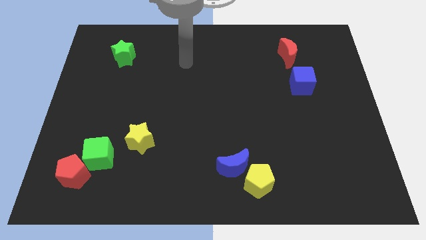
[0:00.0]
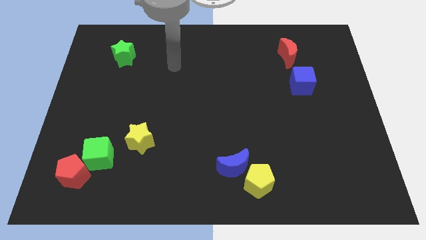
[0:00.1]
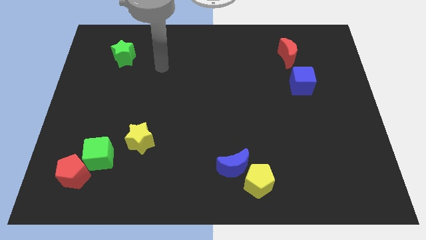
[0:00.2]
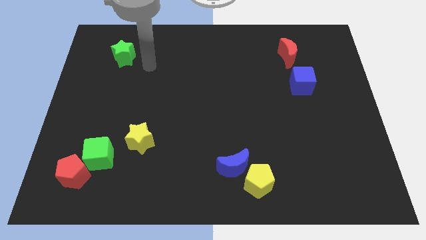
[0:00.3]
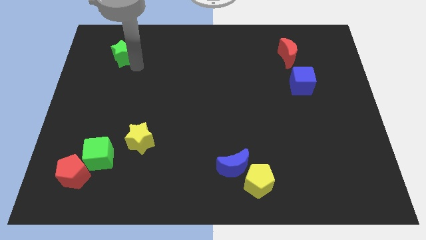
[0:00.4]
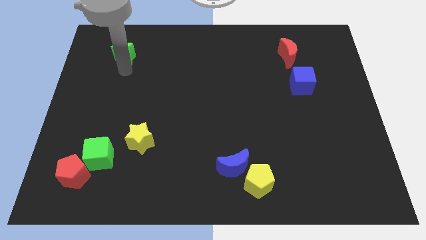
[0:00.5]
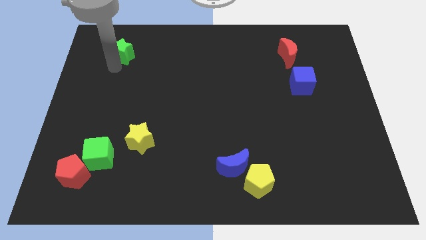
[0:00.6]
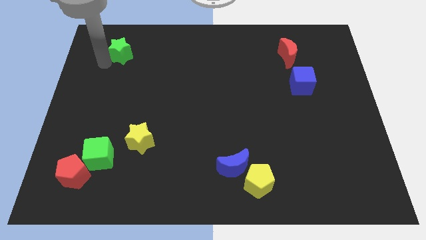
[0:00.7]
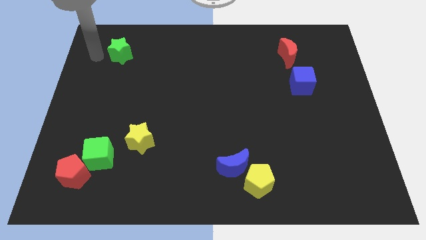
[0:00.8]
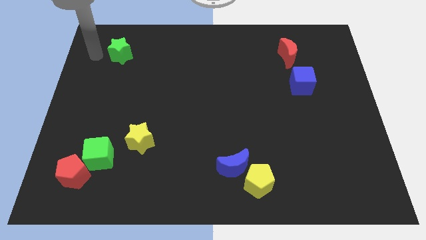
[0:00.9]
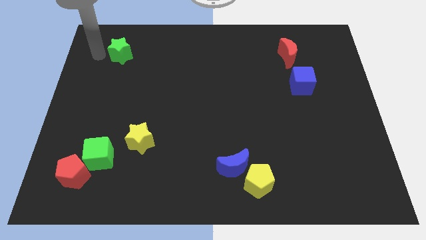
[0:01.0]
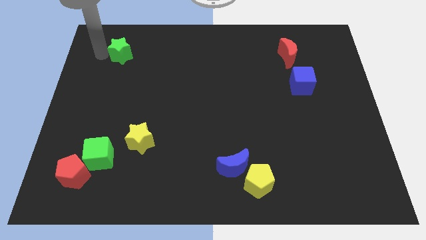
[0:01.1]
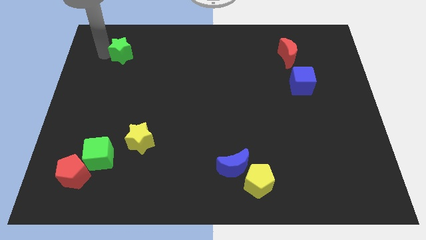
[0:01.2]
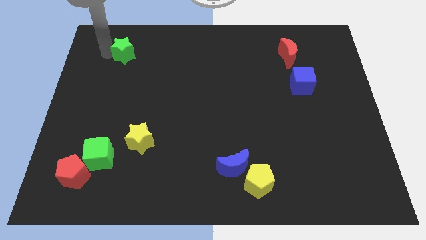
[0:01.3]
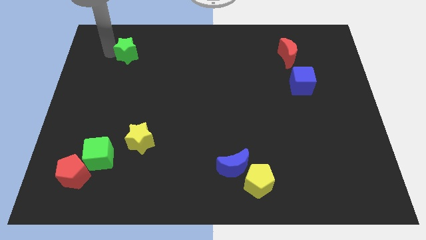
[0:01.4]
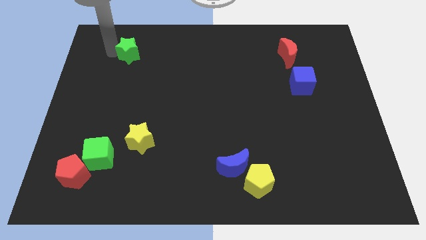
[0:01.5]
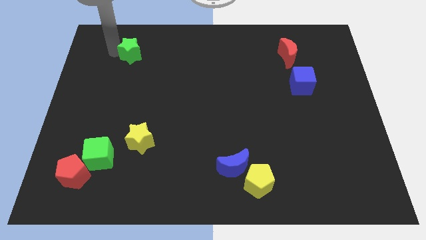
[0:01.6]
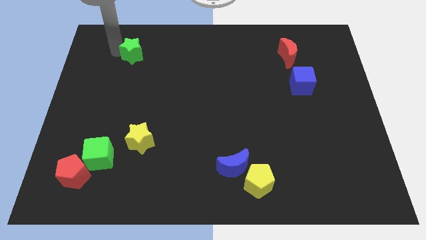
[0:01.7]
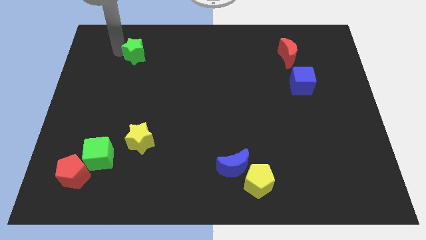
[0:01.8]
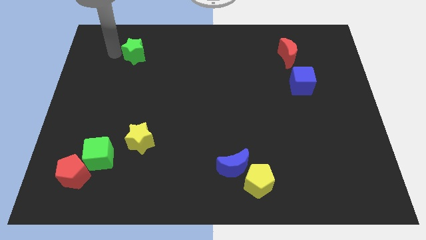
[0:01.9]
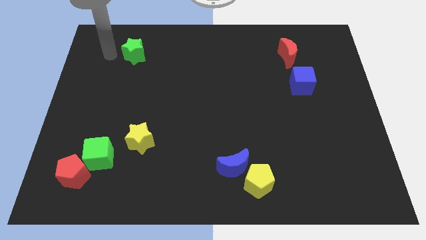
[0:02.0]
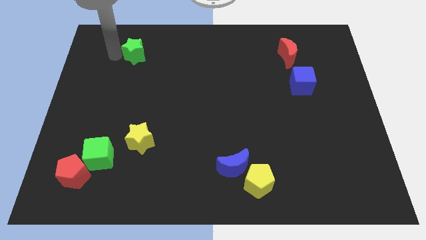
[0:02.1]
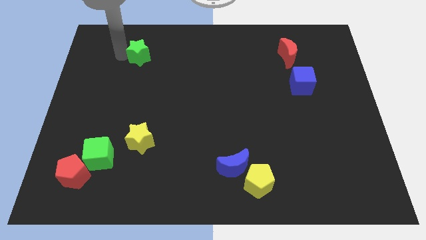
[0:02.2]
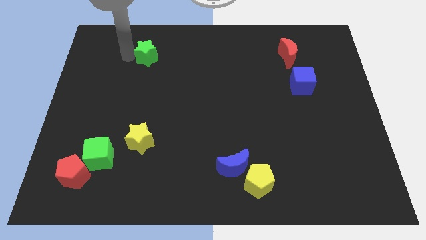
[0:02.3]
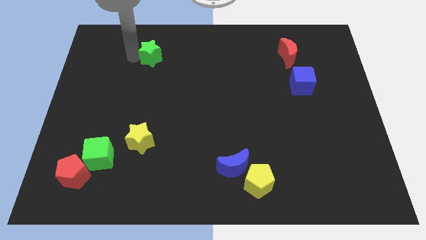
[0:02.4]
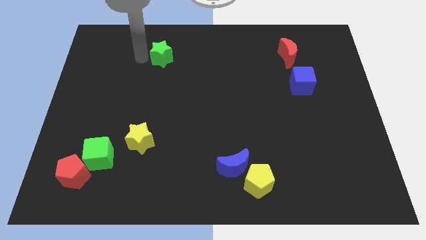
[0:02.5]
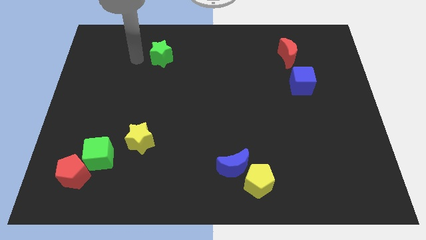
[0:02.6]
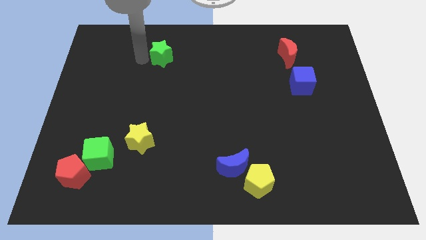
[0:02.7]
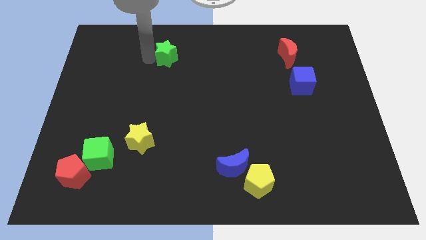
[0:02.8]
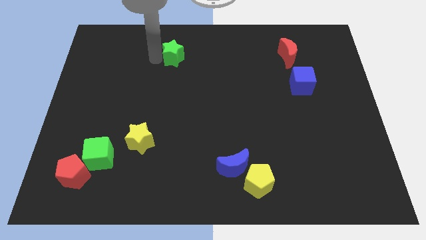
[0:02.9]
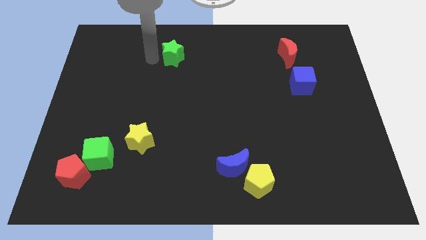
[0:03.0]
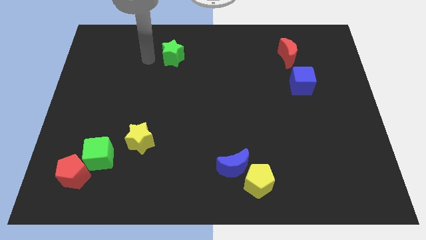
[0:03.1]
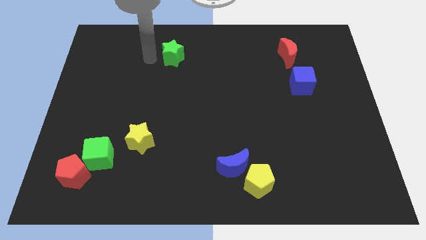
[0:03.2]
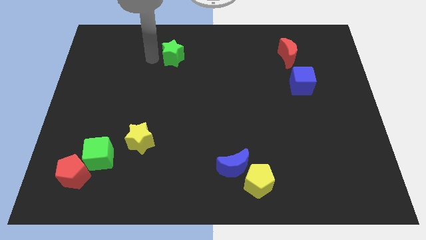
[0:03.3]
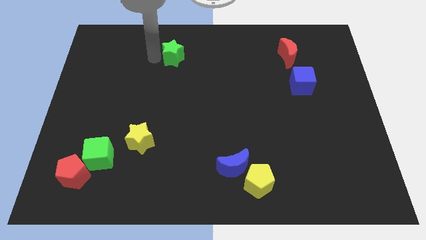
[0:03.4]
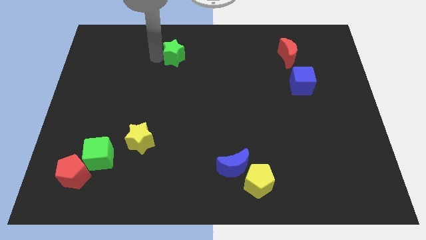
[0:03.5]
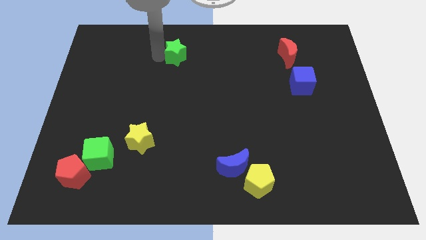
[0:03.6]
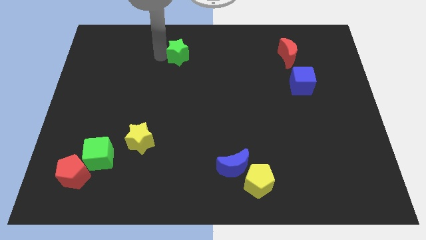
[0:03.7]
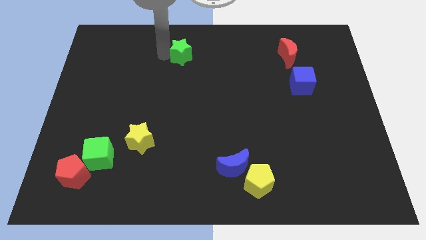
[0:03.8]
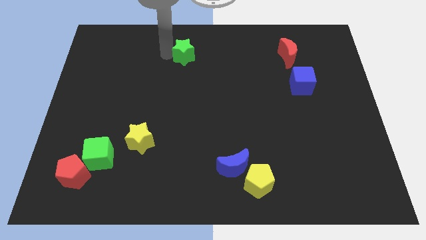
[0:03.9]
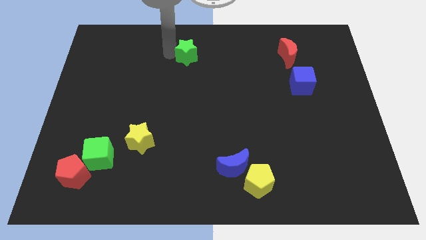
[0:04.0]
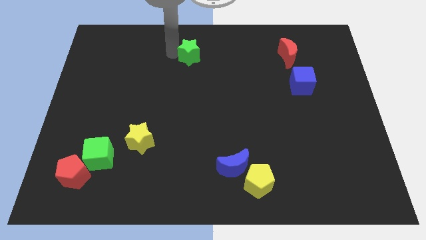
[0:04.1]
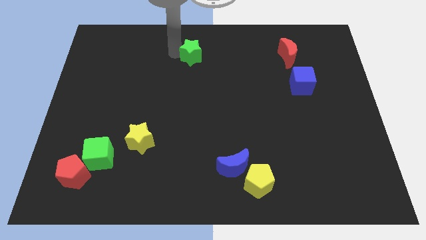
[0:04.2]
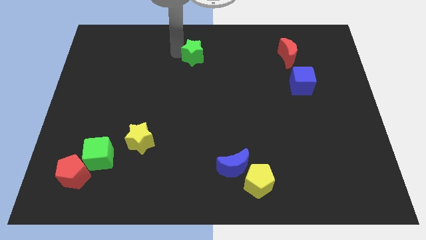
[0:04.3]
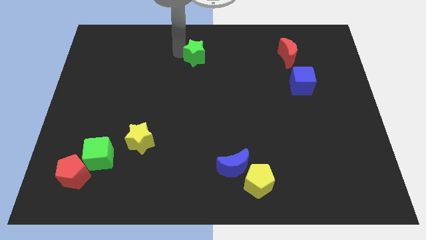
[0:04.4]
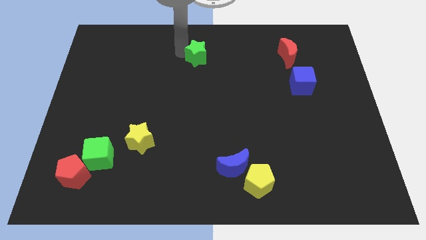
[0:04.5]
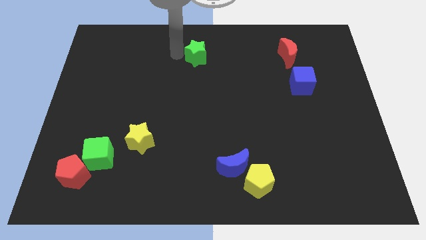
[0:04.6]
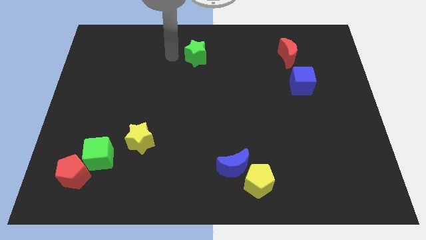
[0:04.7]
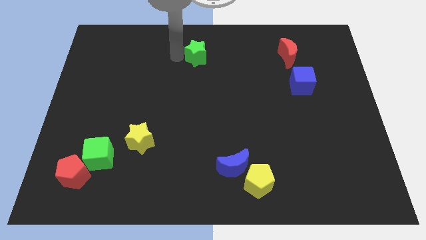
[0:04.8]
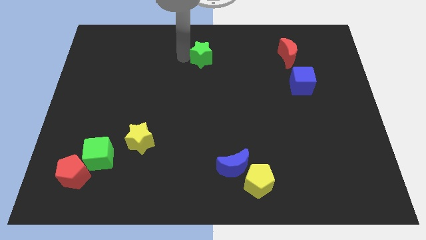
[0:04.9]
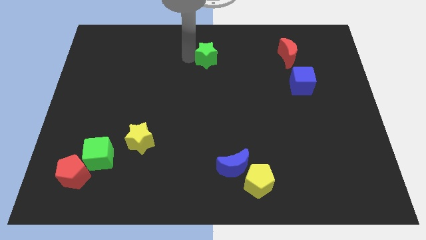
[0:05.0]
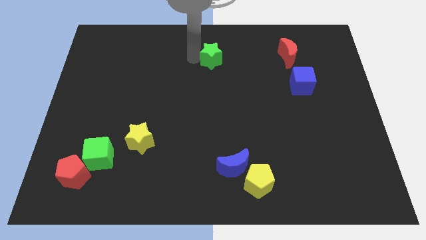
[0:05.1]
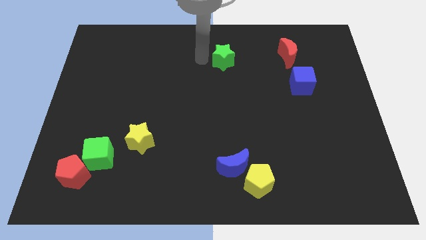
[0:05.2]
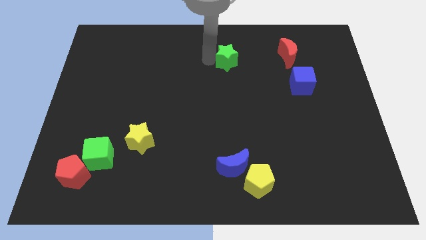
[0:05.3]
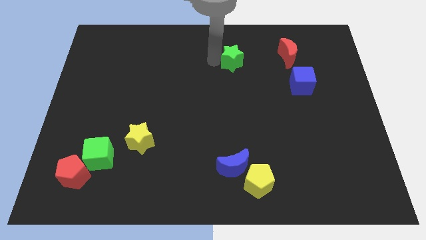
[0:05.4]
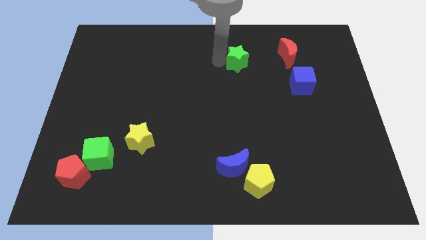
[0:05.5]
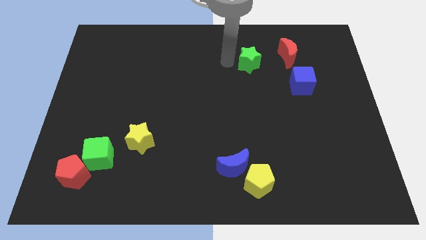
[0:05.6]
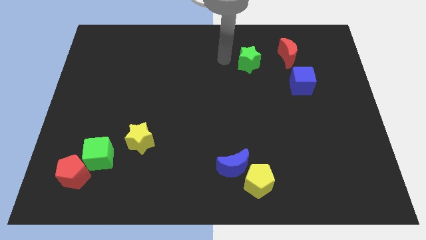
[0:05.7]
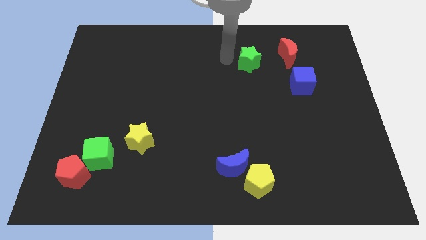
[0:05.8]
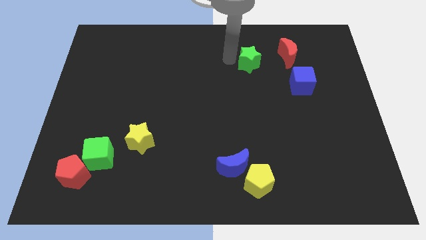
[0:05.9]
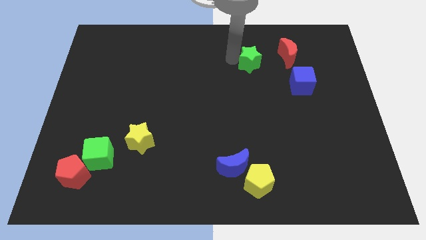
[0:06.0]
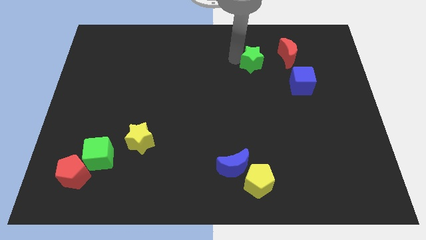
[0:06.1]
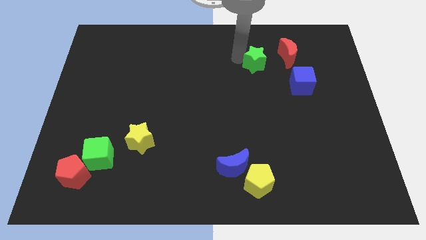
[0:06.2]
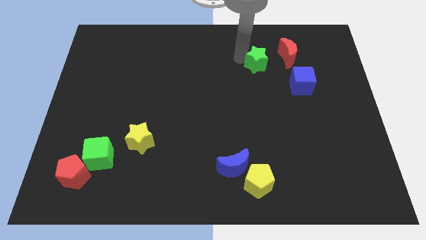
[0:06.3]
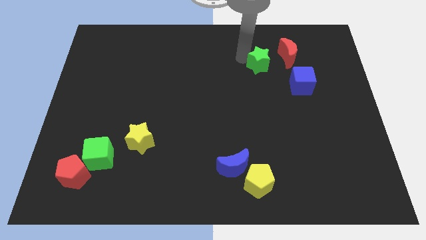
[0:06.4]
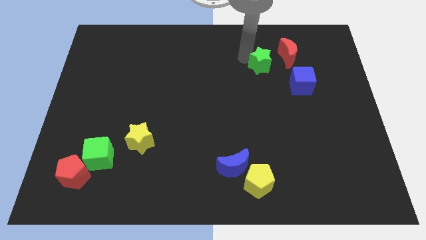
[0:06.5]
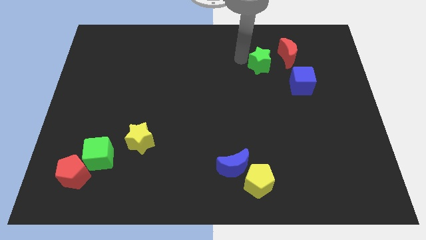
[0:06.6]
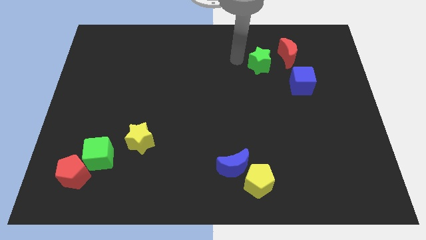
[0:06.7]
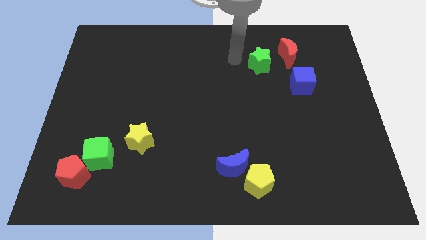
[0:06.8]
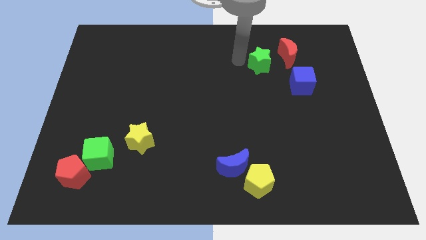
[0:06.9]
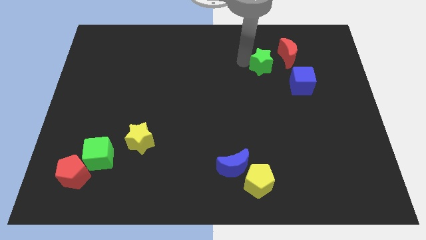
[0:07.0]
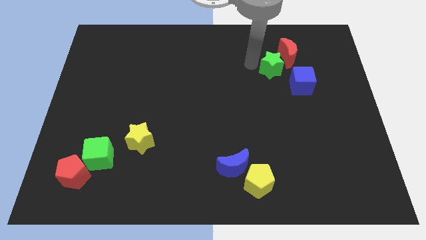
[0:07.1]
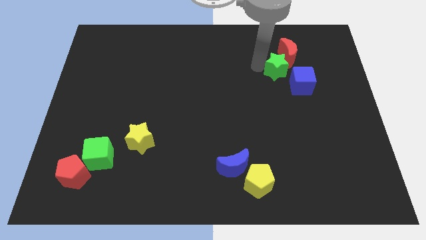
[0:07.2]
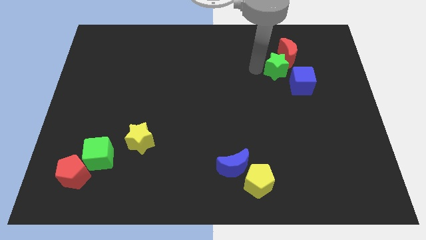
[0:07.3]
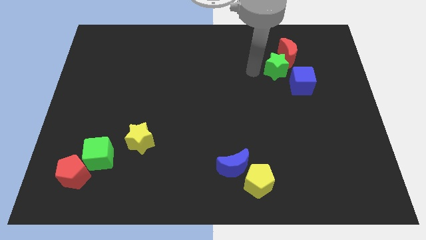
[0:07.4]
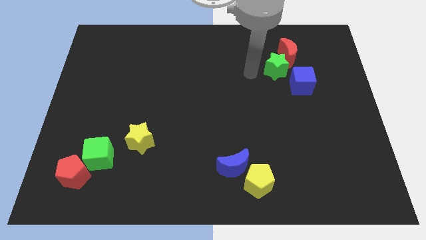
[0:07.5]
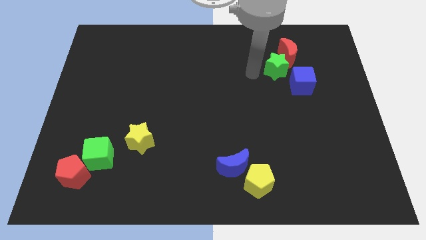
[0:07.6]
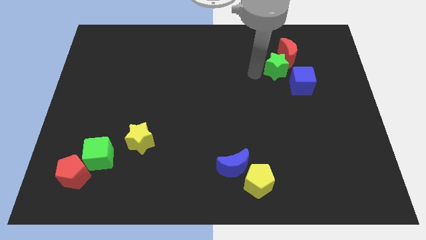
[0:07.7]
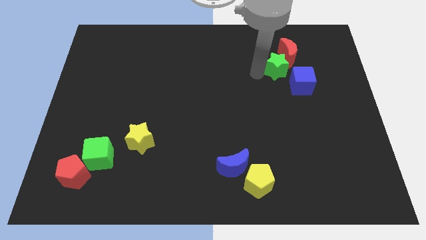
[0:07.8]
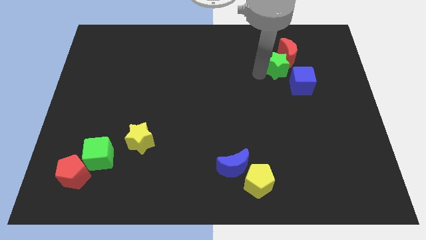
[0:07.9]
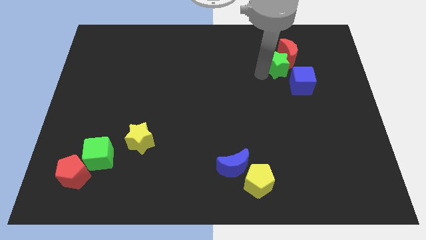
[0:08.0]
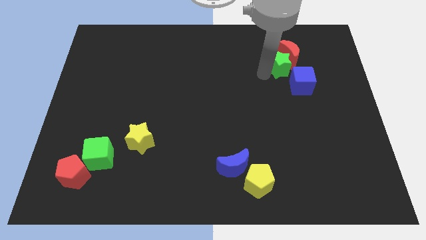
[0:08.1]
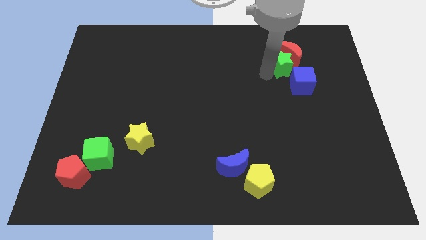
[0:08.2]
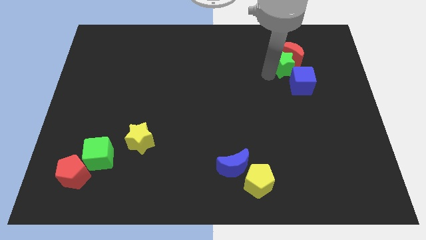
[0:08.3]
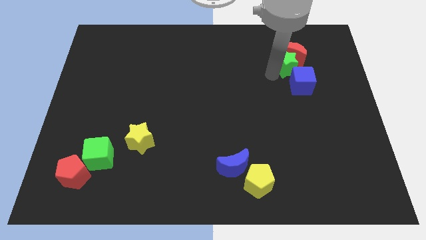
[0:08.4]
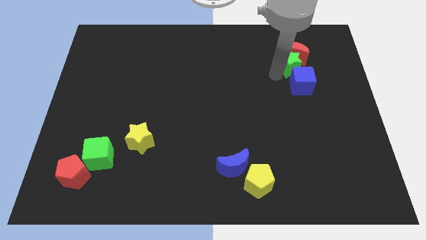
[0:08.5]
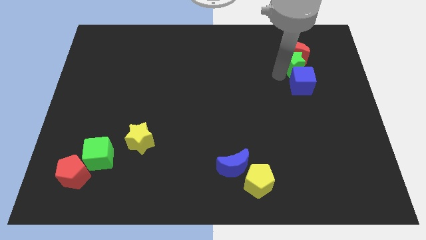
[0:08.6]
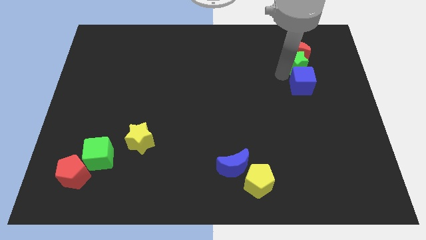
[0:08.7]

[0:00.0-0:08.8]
put the green star diagonally up and to the right of the blue cube
